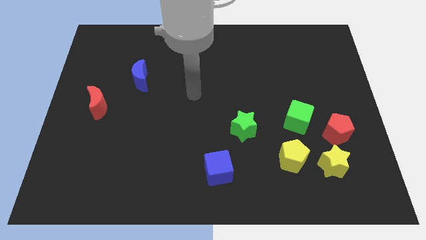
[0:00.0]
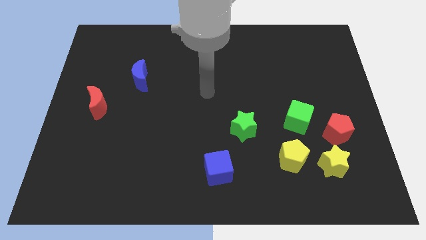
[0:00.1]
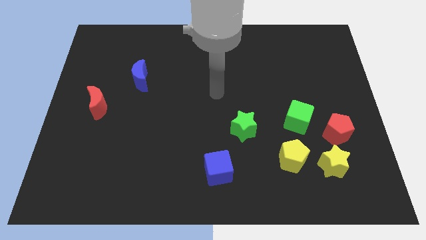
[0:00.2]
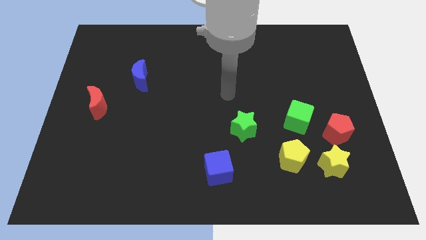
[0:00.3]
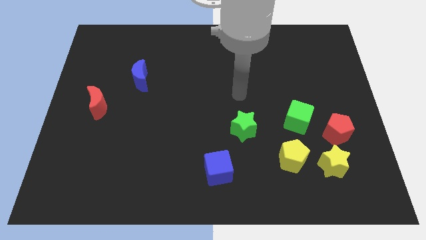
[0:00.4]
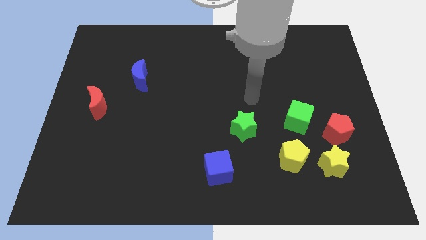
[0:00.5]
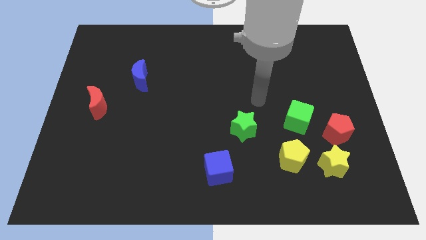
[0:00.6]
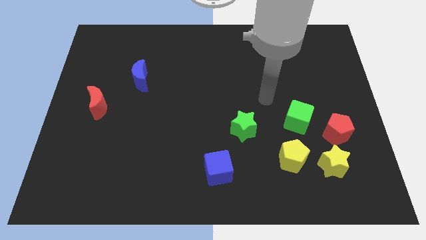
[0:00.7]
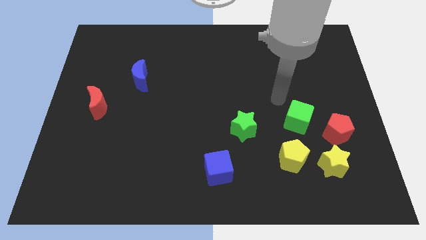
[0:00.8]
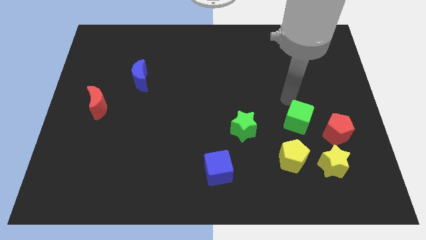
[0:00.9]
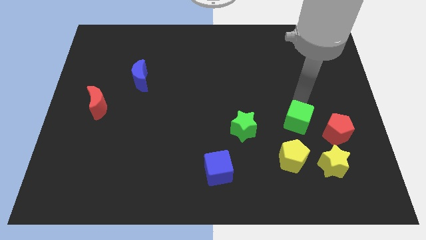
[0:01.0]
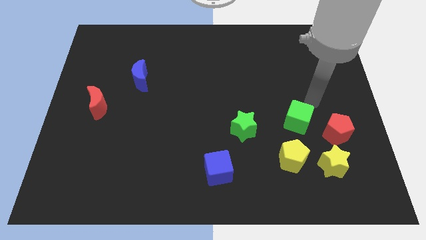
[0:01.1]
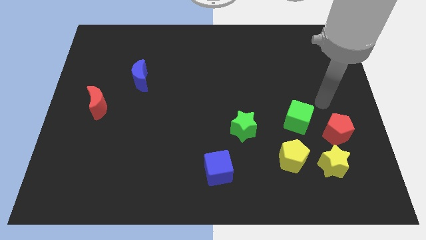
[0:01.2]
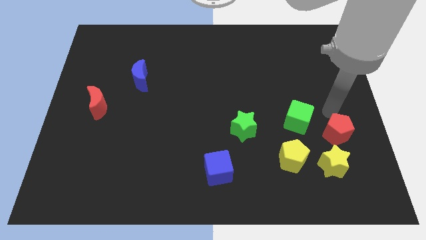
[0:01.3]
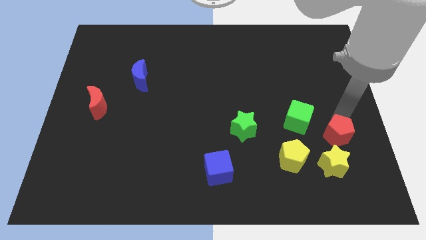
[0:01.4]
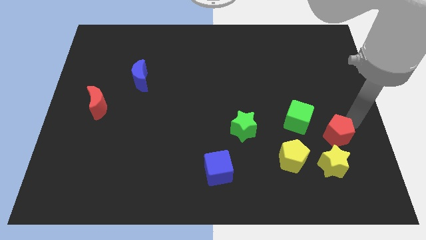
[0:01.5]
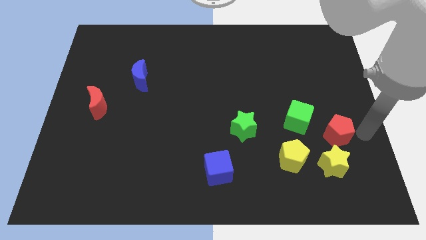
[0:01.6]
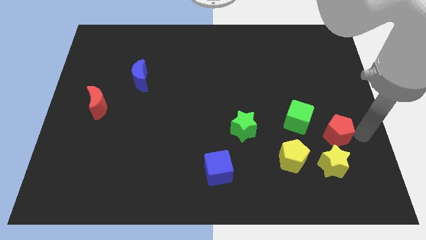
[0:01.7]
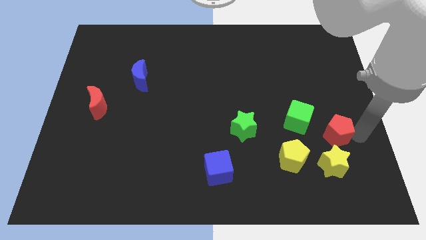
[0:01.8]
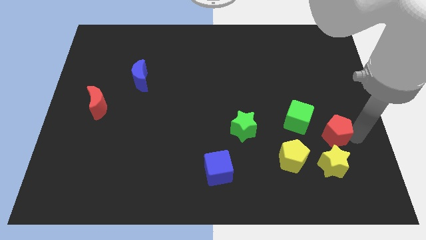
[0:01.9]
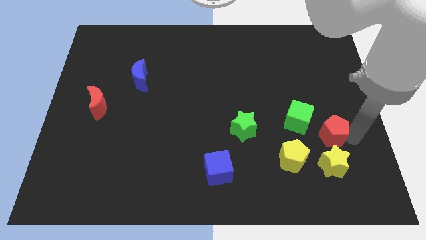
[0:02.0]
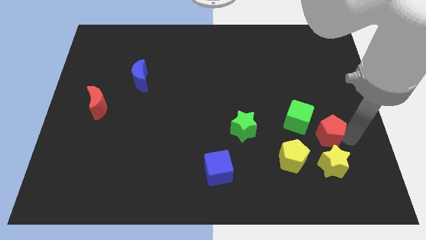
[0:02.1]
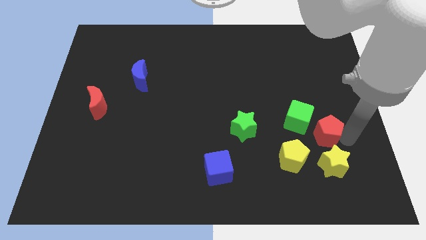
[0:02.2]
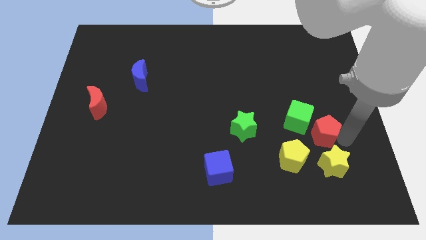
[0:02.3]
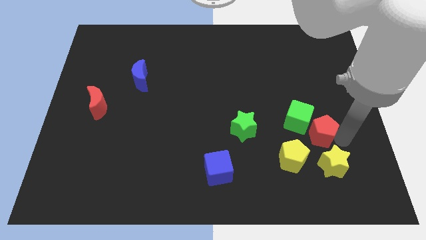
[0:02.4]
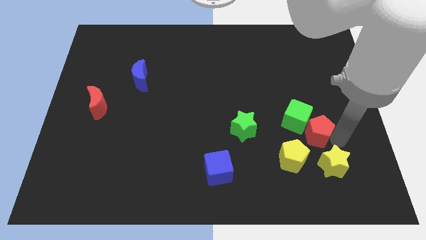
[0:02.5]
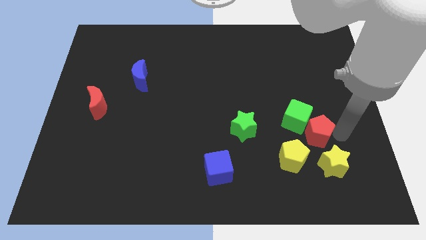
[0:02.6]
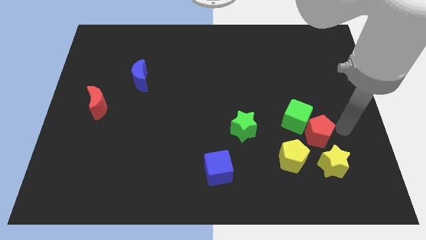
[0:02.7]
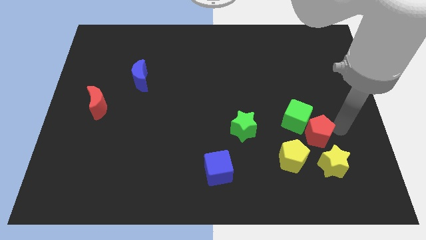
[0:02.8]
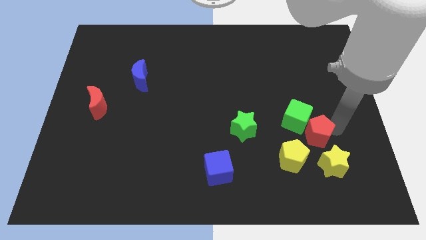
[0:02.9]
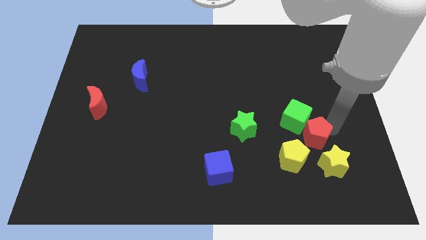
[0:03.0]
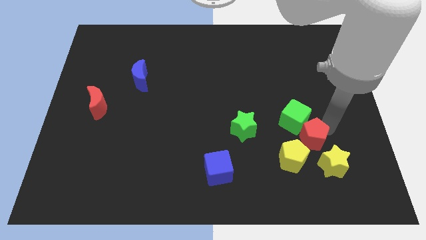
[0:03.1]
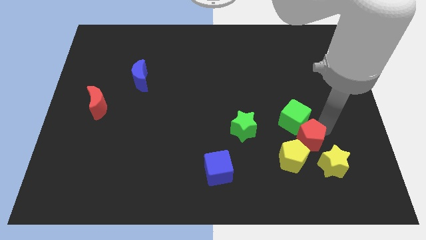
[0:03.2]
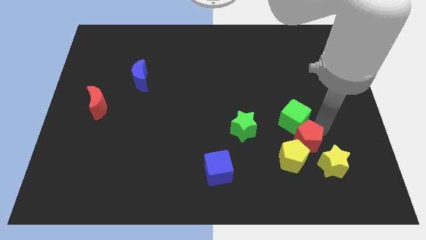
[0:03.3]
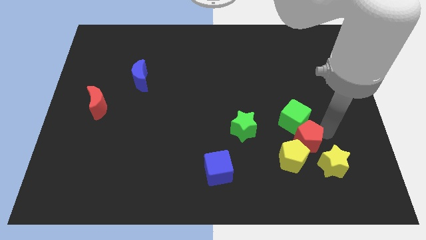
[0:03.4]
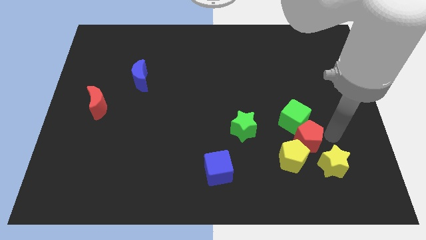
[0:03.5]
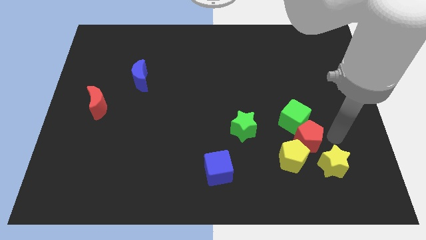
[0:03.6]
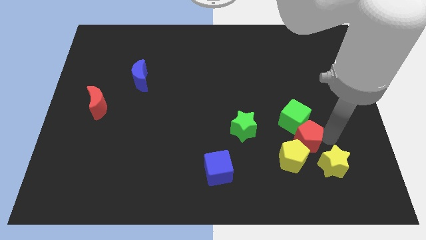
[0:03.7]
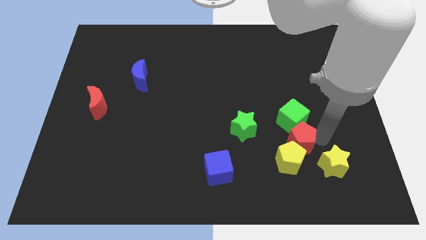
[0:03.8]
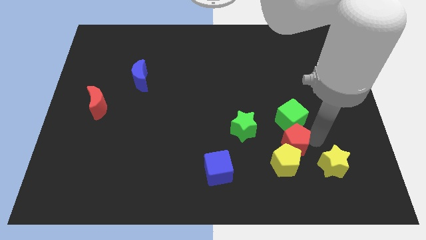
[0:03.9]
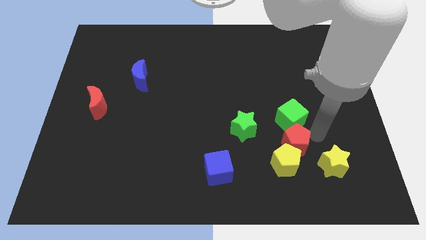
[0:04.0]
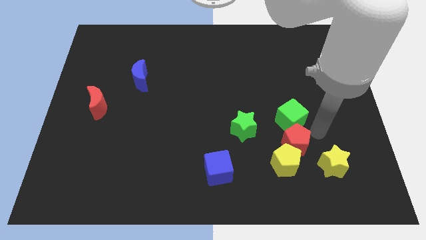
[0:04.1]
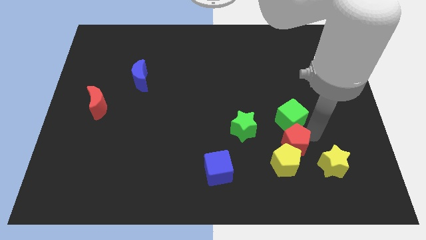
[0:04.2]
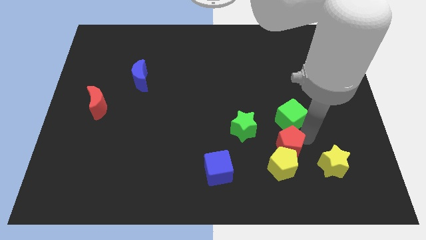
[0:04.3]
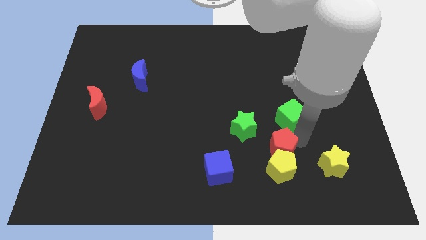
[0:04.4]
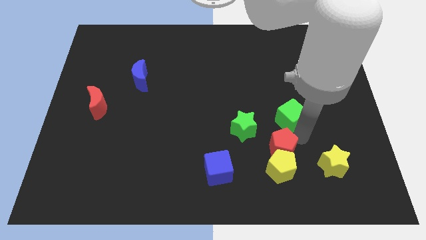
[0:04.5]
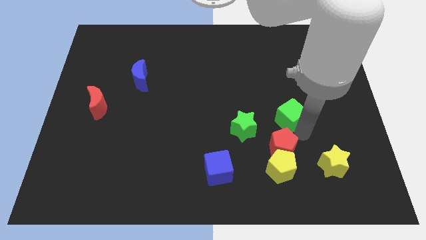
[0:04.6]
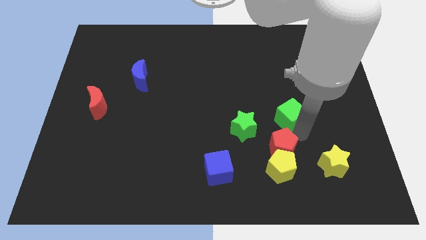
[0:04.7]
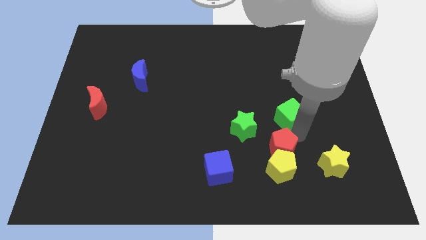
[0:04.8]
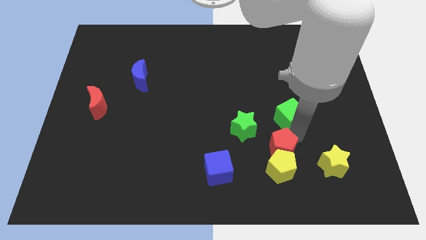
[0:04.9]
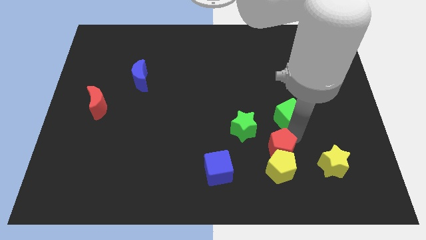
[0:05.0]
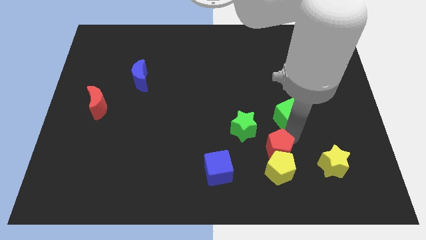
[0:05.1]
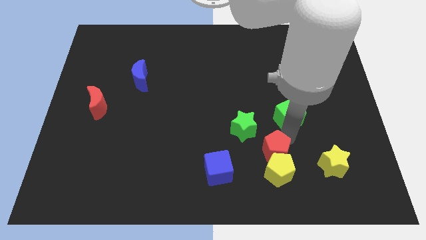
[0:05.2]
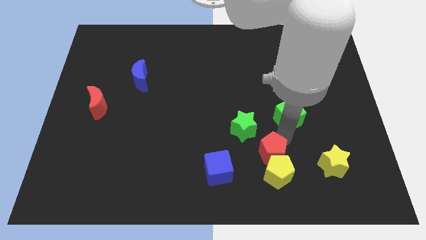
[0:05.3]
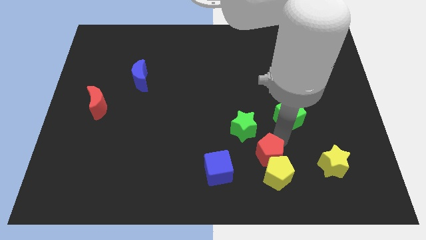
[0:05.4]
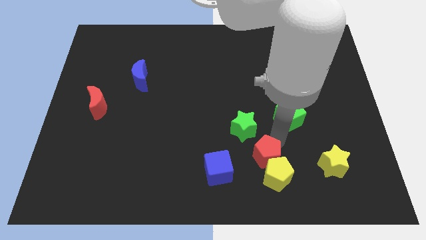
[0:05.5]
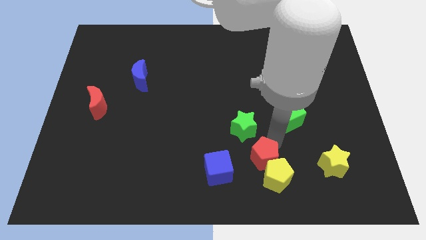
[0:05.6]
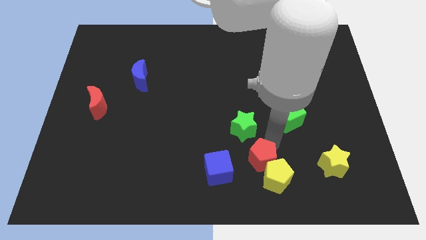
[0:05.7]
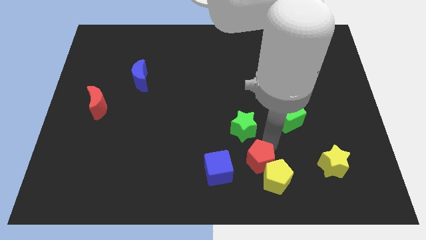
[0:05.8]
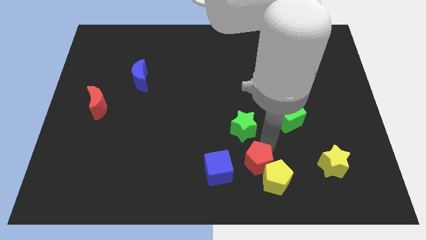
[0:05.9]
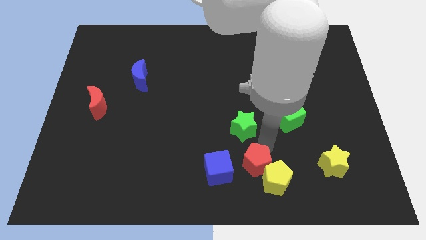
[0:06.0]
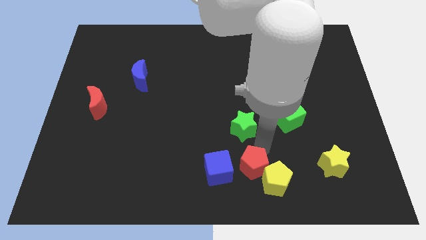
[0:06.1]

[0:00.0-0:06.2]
push the red pentagon to the bottom

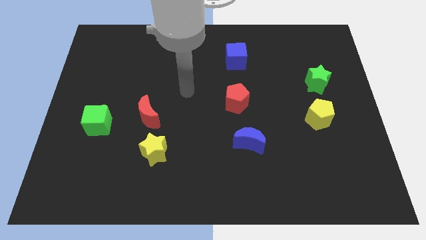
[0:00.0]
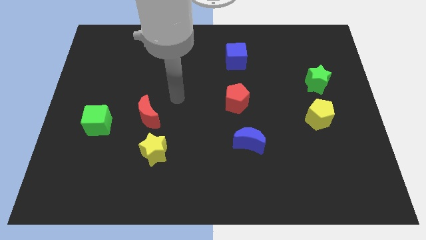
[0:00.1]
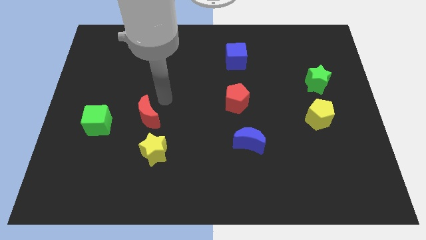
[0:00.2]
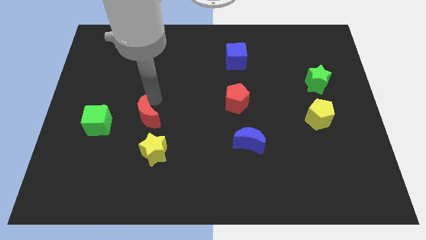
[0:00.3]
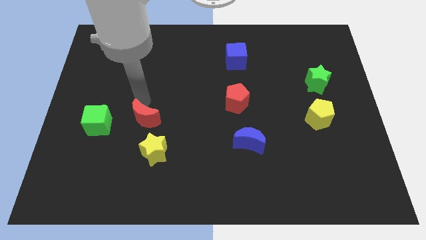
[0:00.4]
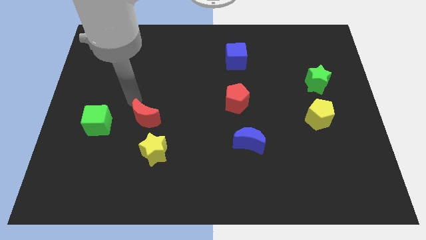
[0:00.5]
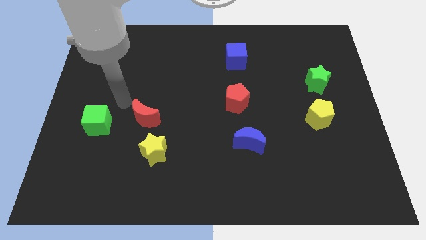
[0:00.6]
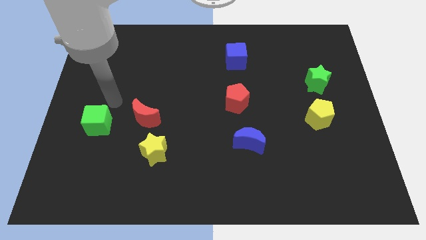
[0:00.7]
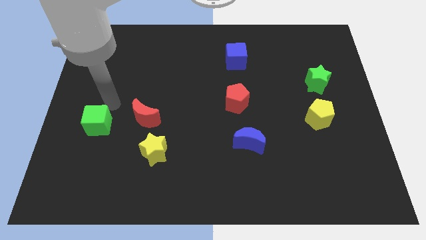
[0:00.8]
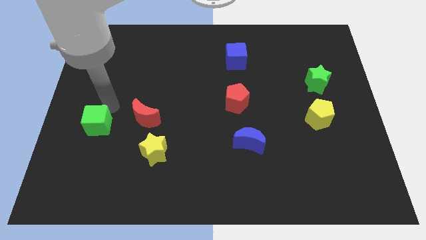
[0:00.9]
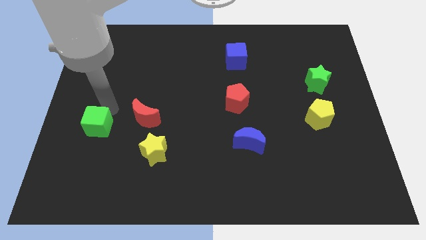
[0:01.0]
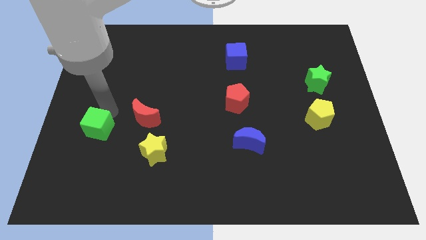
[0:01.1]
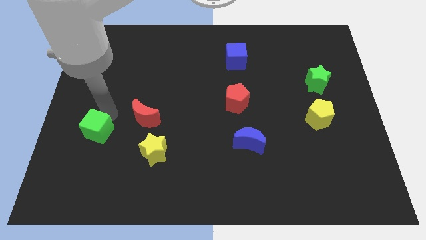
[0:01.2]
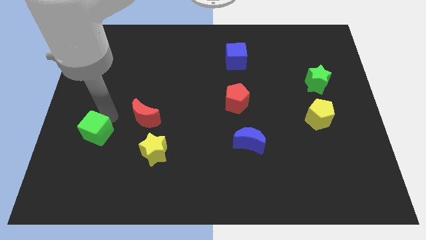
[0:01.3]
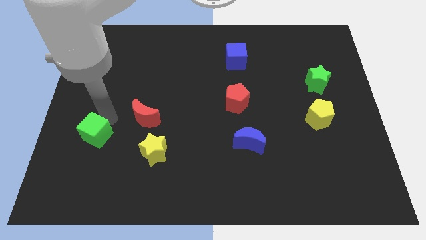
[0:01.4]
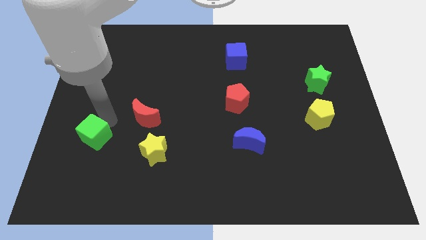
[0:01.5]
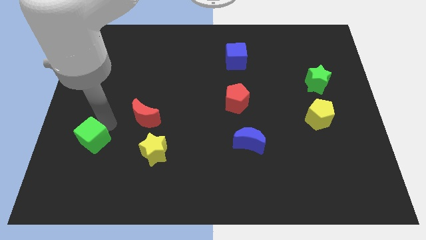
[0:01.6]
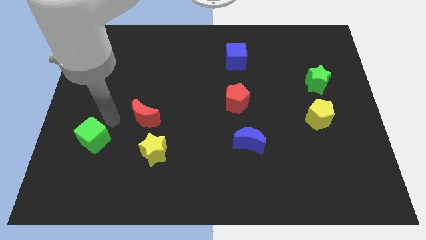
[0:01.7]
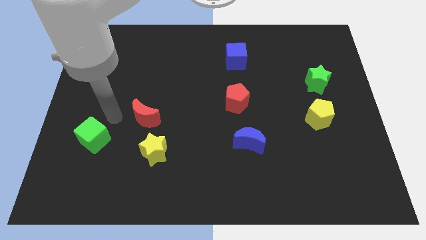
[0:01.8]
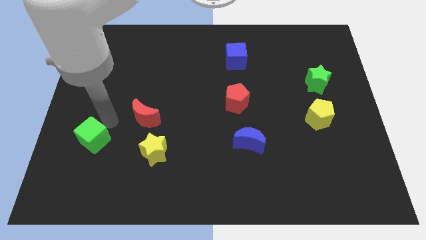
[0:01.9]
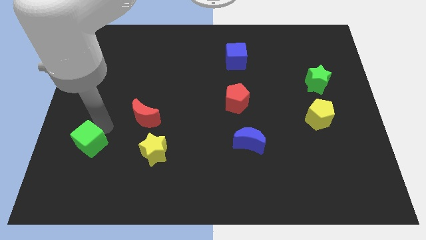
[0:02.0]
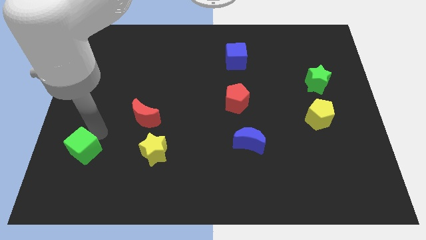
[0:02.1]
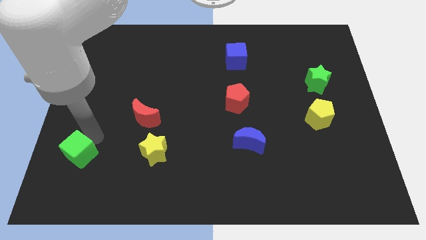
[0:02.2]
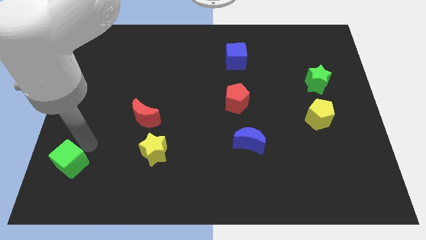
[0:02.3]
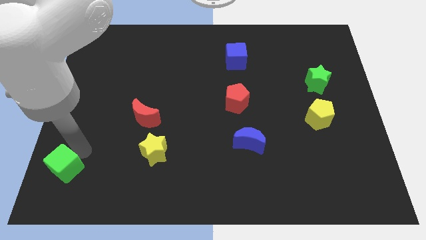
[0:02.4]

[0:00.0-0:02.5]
put the green cube to the bottom left
